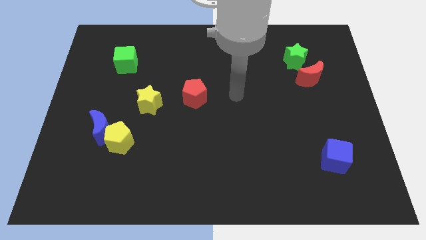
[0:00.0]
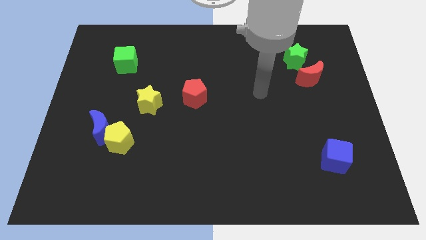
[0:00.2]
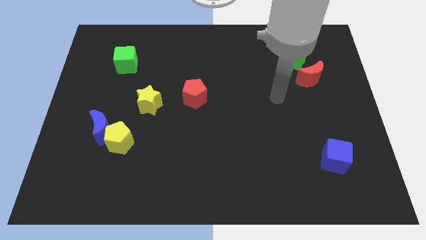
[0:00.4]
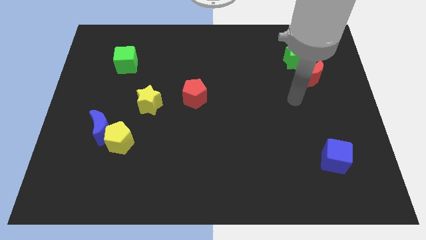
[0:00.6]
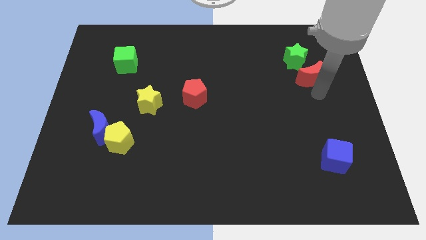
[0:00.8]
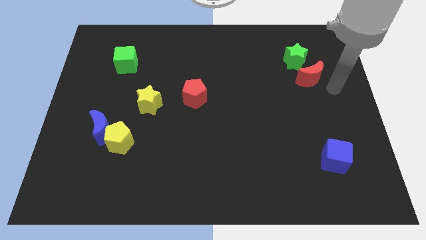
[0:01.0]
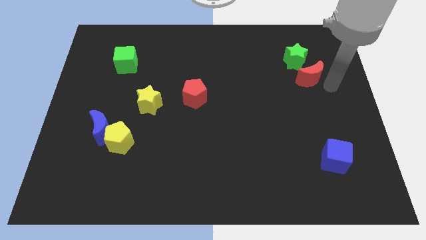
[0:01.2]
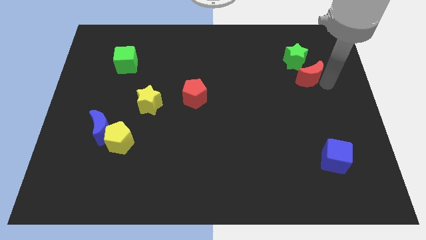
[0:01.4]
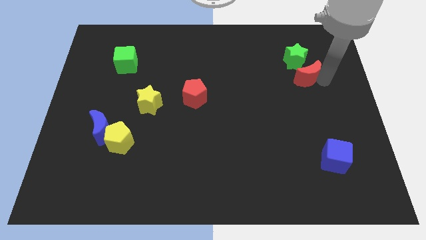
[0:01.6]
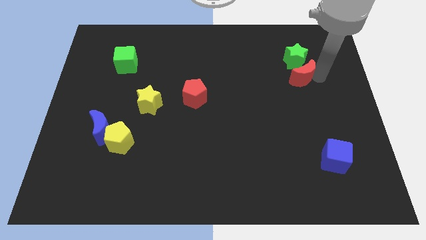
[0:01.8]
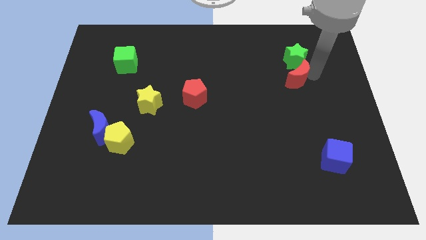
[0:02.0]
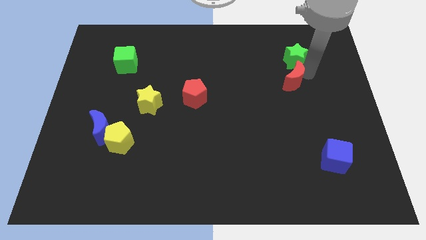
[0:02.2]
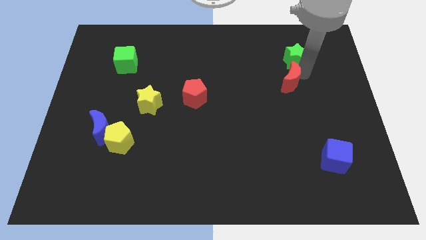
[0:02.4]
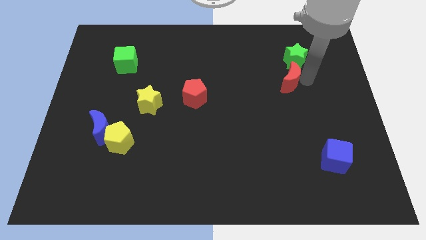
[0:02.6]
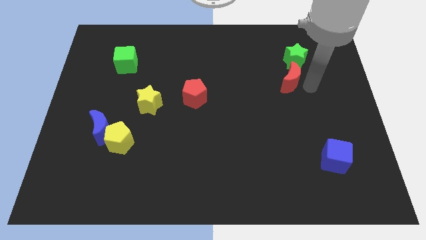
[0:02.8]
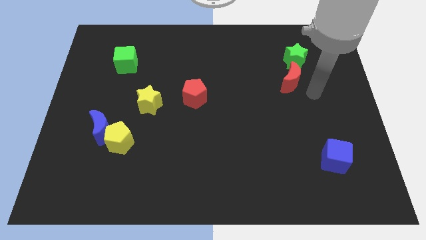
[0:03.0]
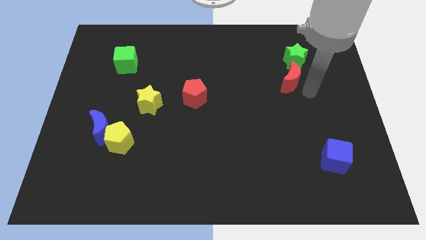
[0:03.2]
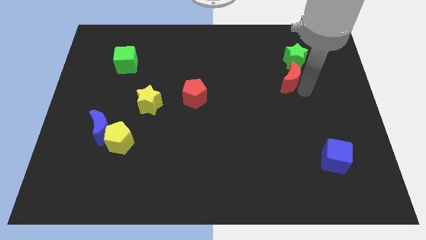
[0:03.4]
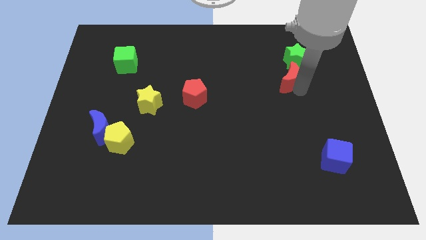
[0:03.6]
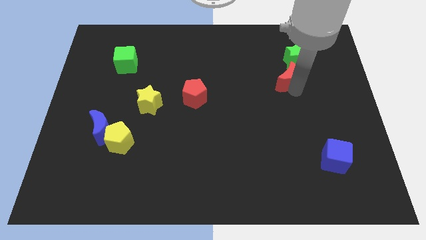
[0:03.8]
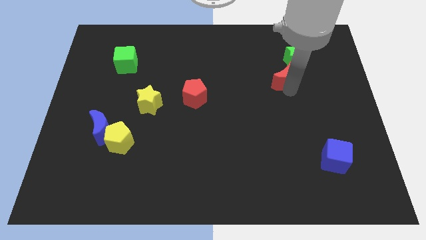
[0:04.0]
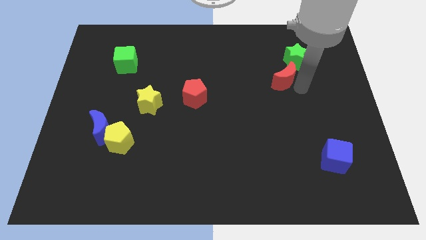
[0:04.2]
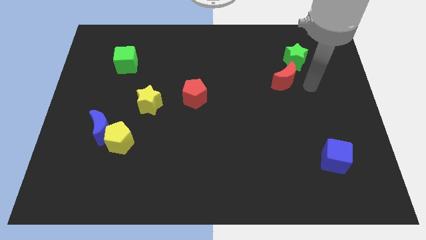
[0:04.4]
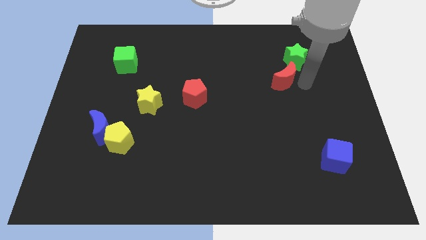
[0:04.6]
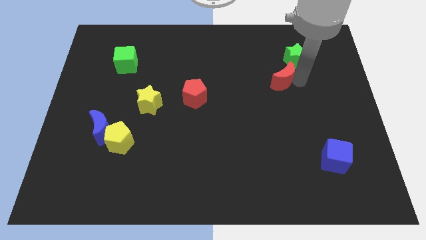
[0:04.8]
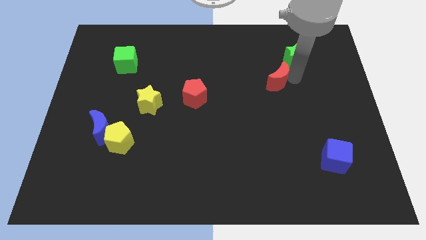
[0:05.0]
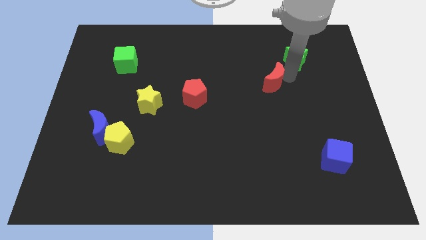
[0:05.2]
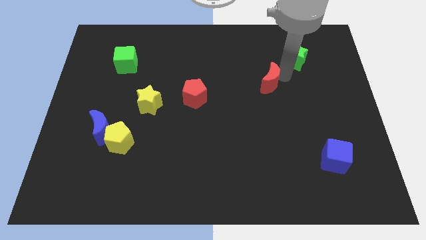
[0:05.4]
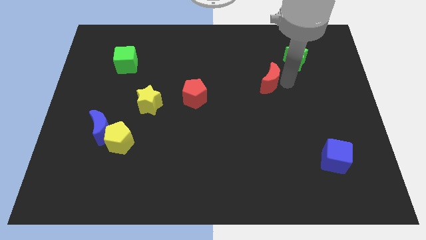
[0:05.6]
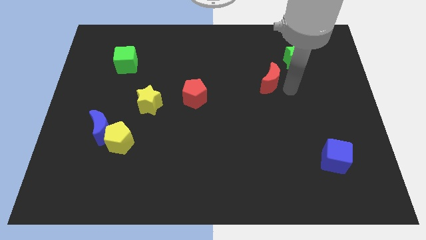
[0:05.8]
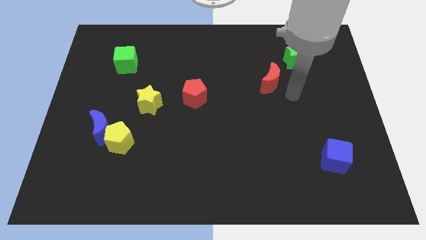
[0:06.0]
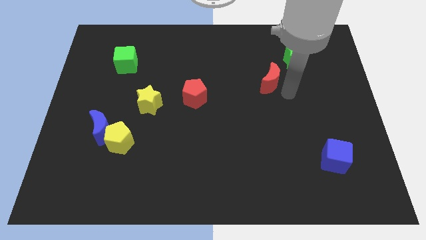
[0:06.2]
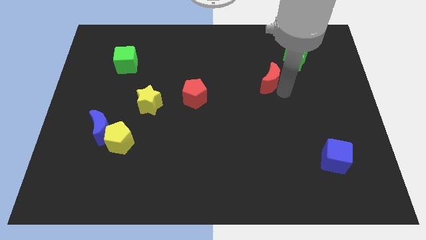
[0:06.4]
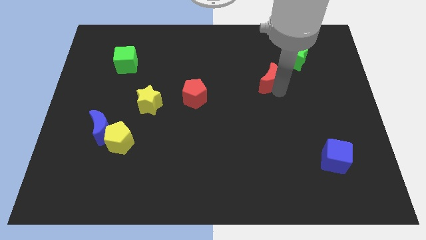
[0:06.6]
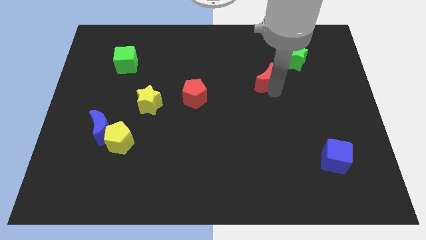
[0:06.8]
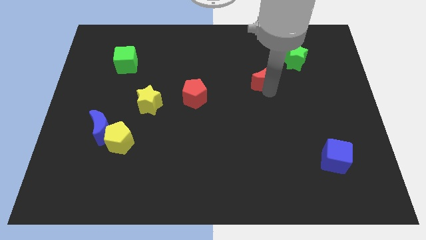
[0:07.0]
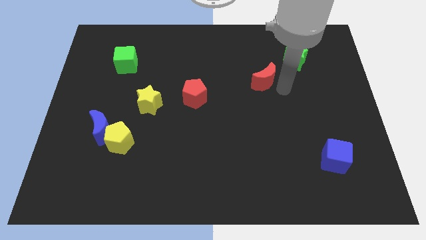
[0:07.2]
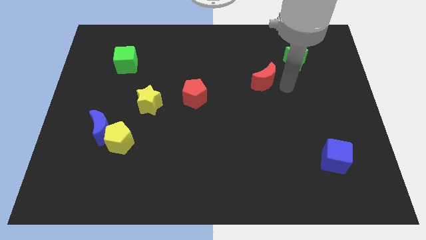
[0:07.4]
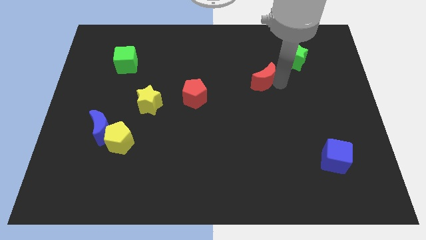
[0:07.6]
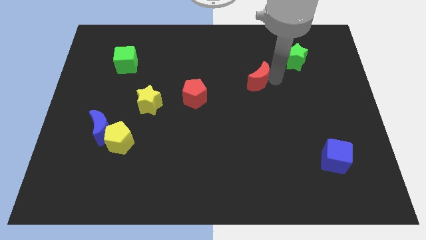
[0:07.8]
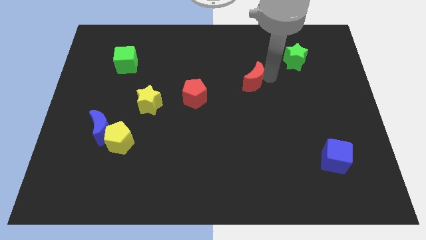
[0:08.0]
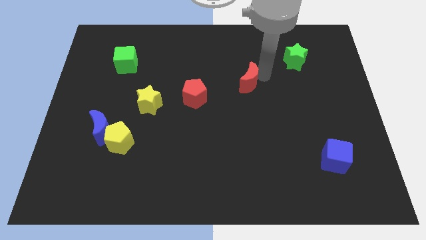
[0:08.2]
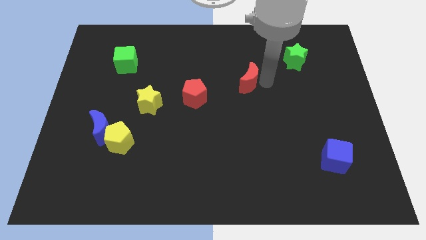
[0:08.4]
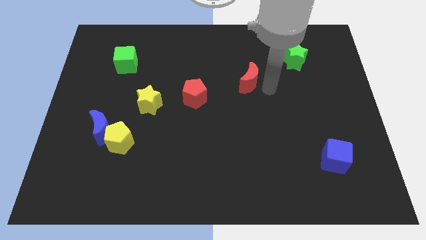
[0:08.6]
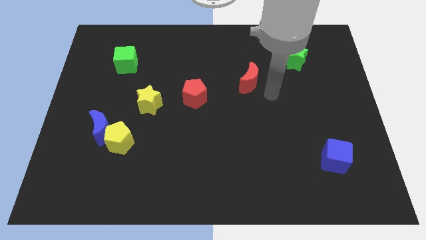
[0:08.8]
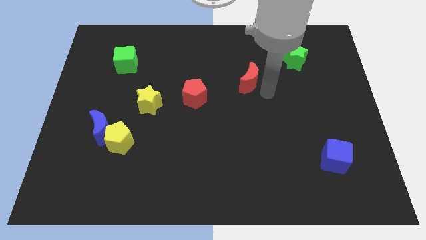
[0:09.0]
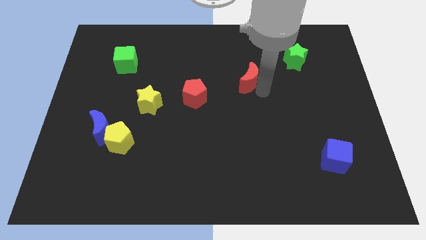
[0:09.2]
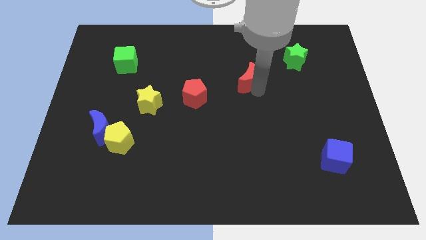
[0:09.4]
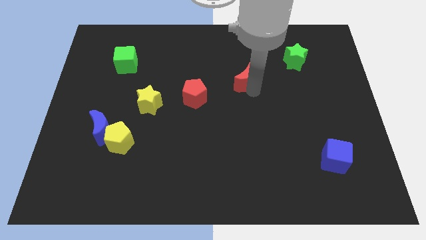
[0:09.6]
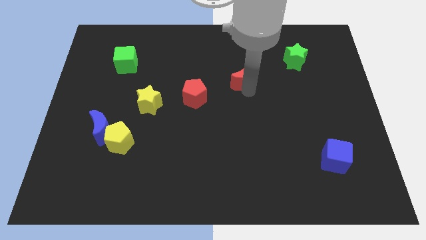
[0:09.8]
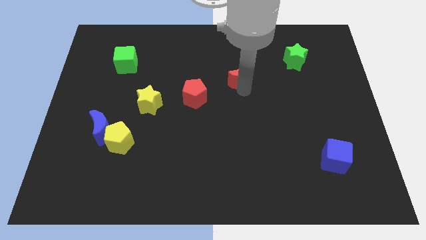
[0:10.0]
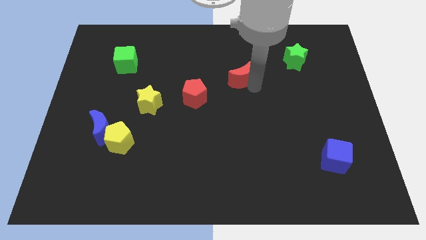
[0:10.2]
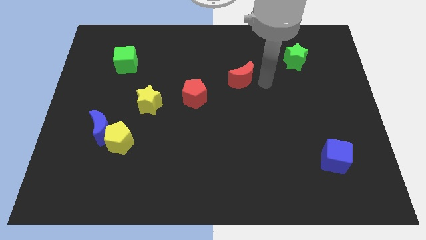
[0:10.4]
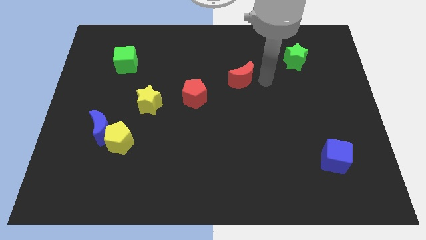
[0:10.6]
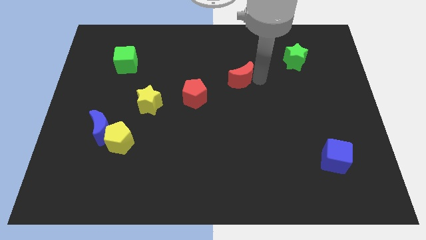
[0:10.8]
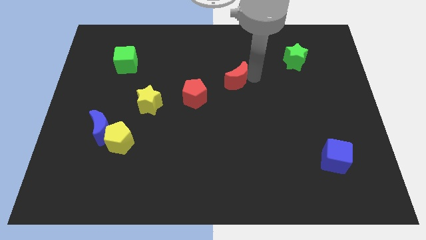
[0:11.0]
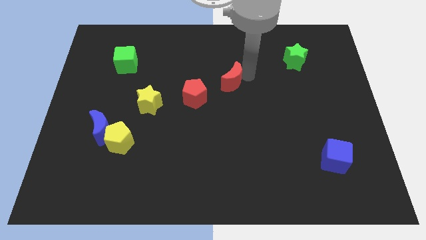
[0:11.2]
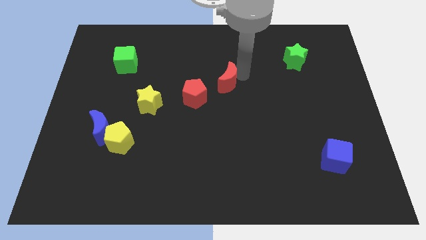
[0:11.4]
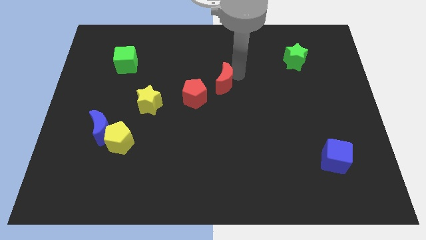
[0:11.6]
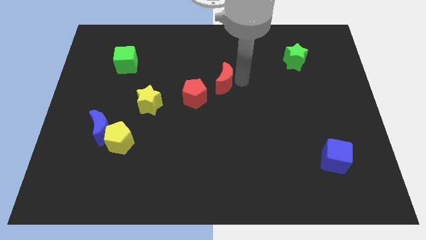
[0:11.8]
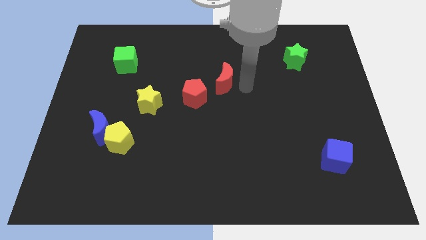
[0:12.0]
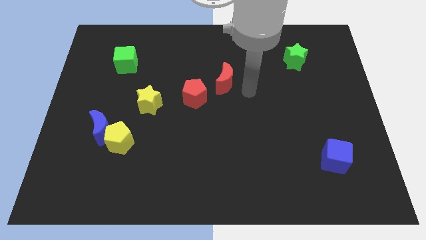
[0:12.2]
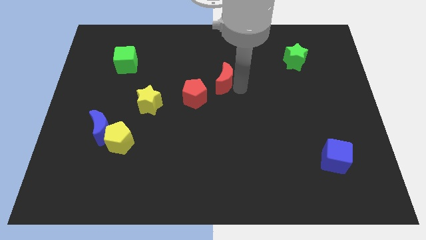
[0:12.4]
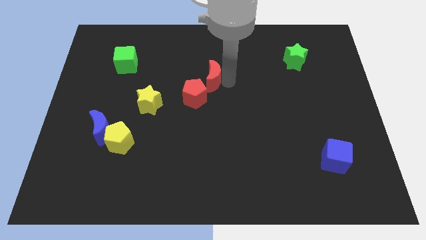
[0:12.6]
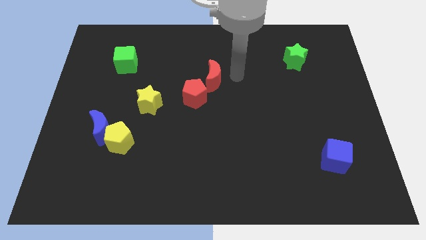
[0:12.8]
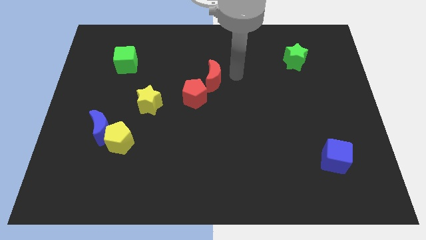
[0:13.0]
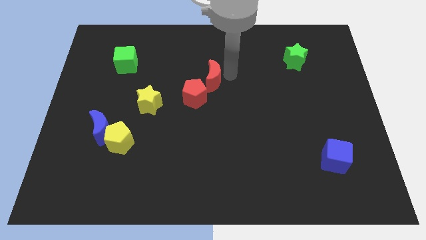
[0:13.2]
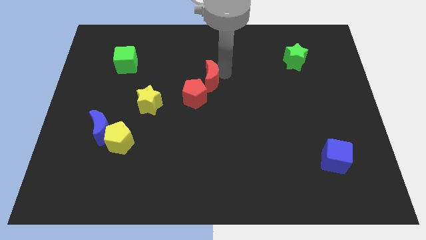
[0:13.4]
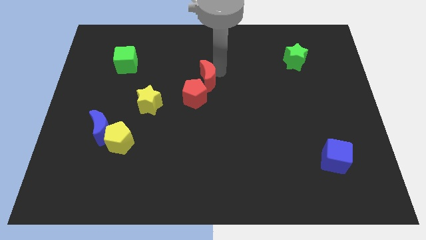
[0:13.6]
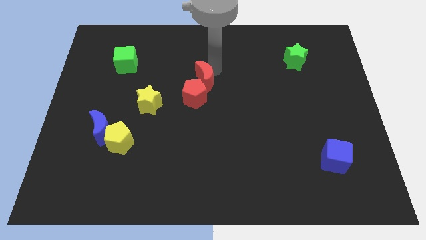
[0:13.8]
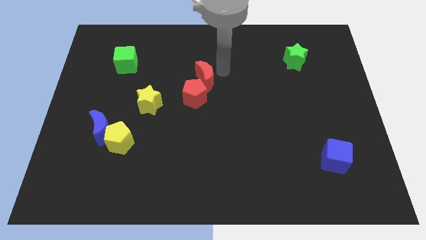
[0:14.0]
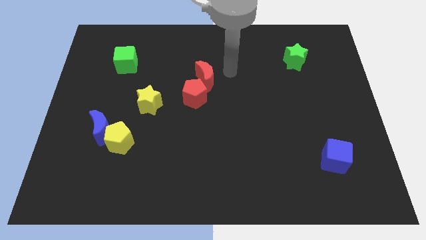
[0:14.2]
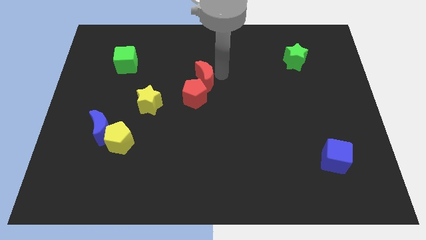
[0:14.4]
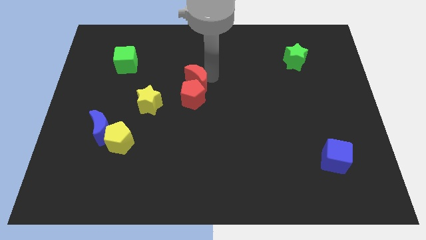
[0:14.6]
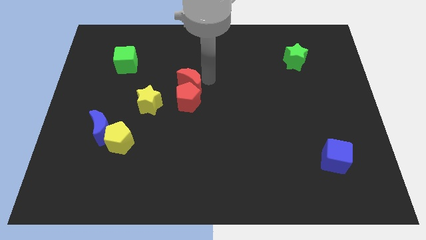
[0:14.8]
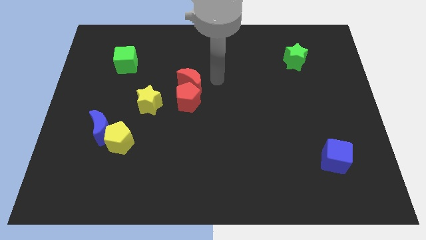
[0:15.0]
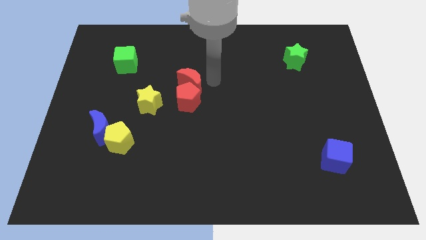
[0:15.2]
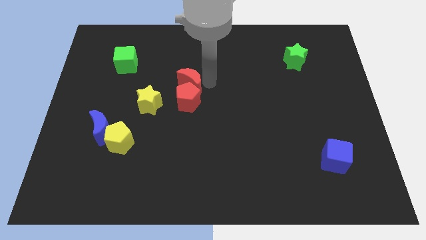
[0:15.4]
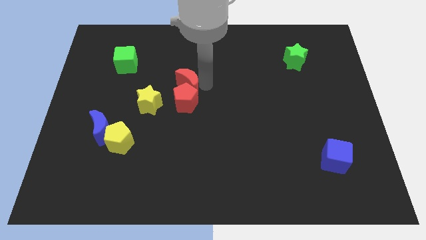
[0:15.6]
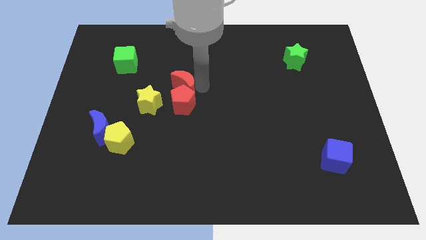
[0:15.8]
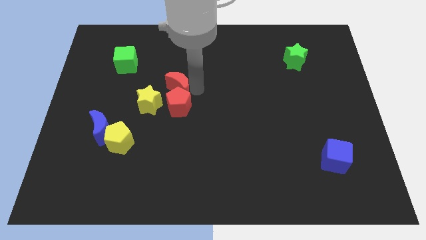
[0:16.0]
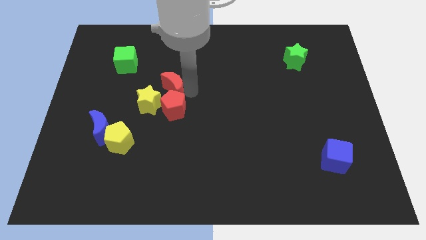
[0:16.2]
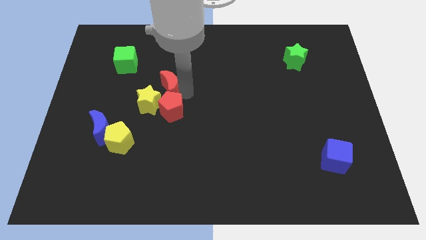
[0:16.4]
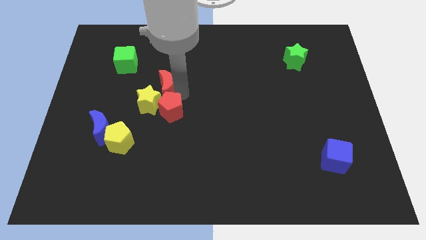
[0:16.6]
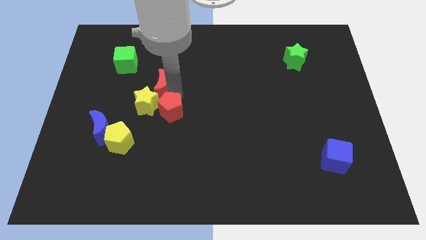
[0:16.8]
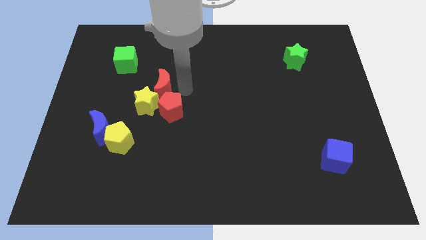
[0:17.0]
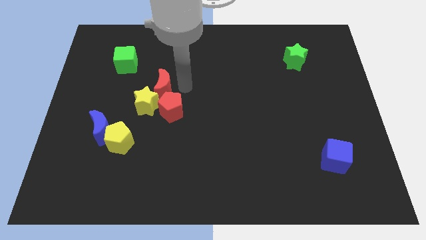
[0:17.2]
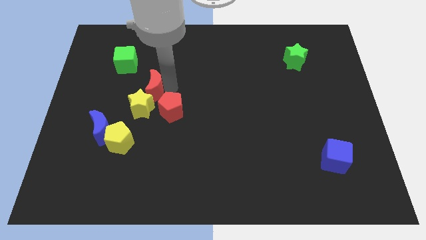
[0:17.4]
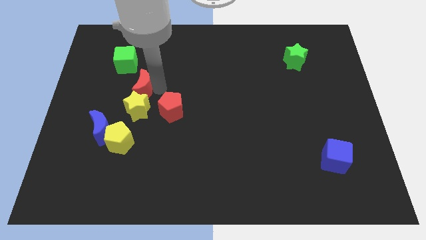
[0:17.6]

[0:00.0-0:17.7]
move the red moon to the top side of the yellow pentagon
